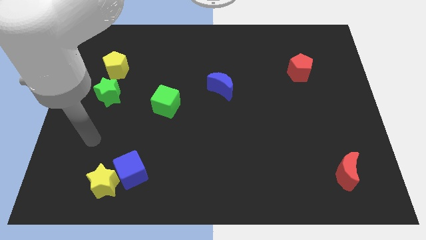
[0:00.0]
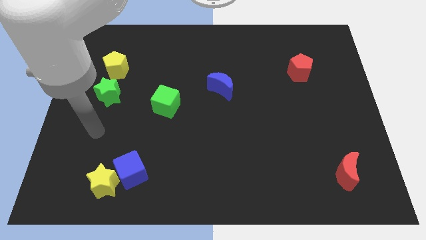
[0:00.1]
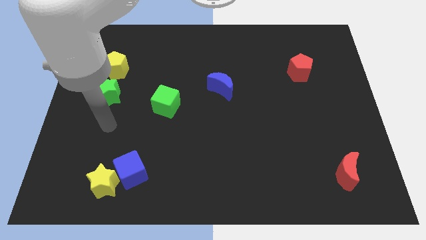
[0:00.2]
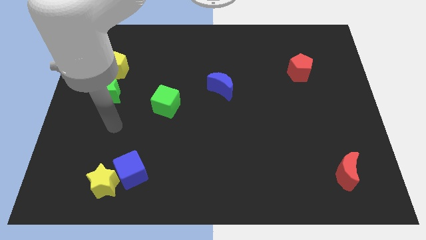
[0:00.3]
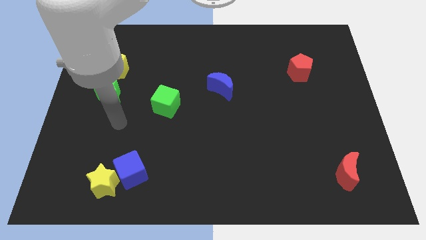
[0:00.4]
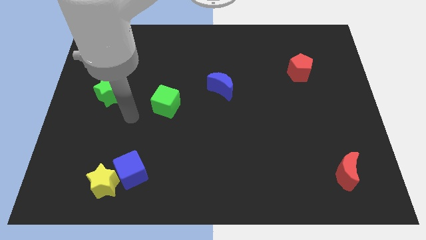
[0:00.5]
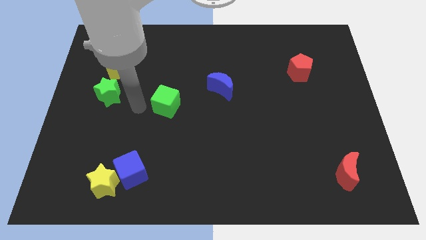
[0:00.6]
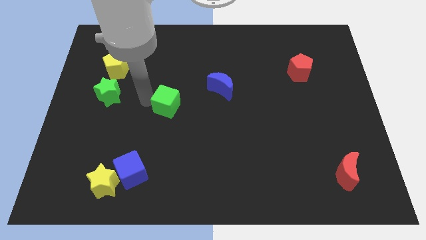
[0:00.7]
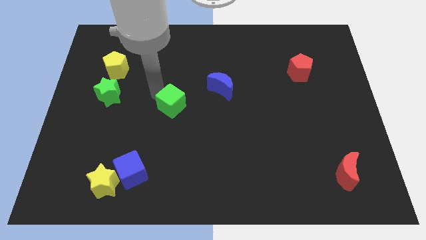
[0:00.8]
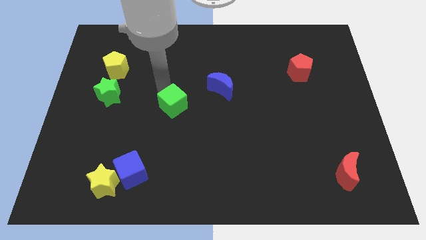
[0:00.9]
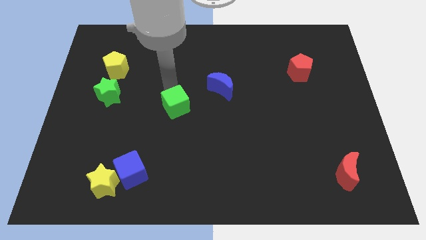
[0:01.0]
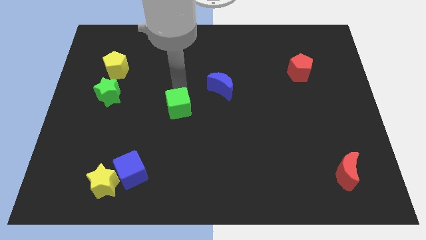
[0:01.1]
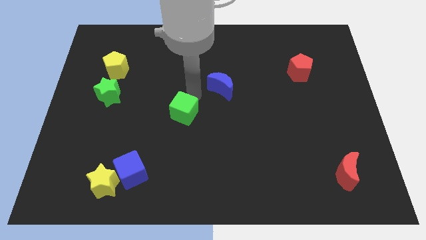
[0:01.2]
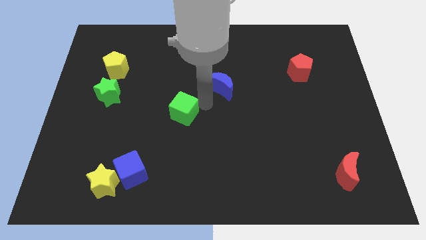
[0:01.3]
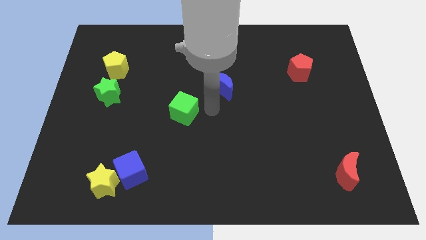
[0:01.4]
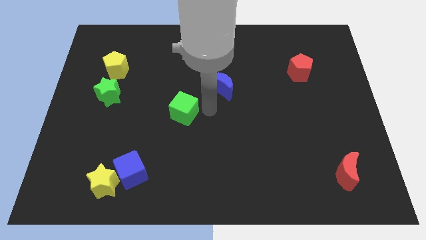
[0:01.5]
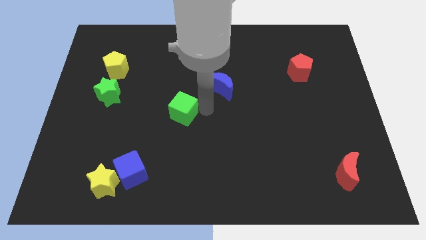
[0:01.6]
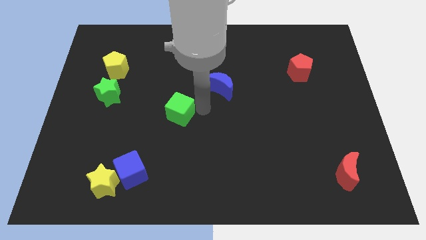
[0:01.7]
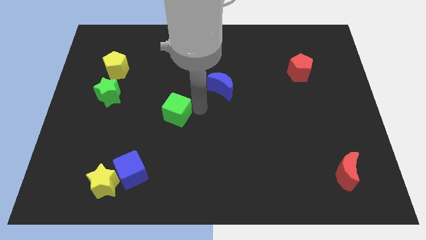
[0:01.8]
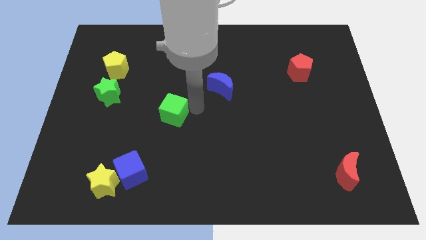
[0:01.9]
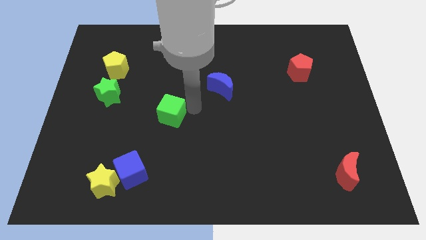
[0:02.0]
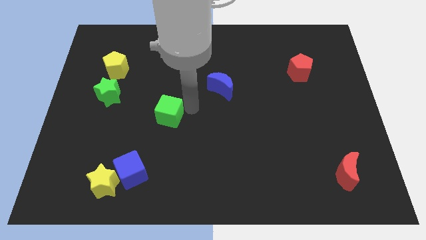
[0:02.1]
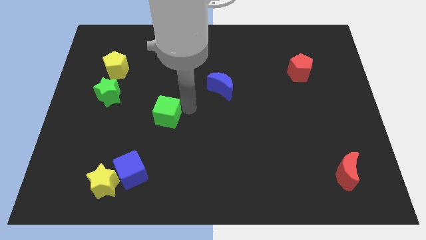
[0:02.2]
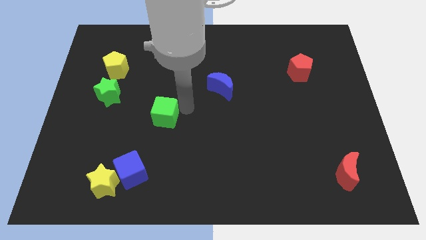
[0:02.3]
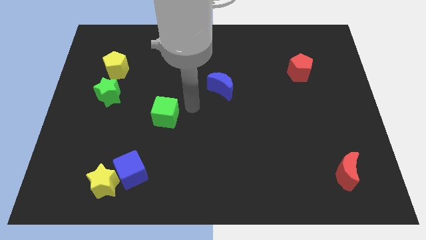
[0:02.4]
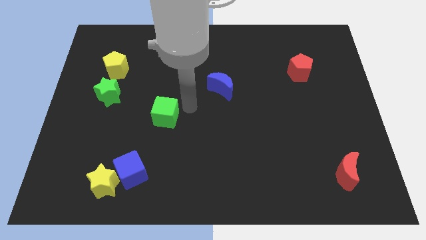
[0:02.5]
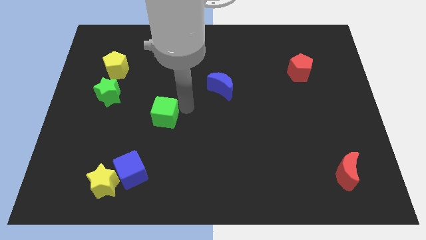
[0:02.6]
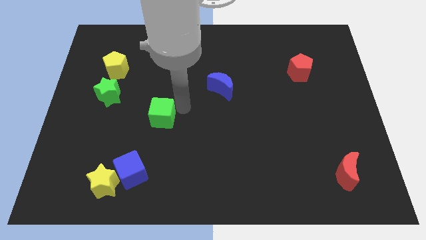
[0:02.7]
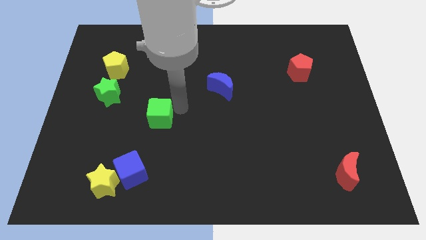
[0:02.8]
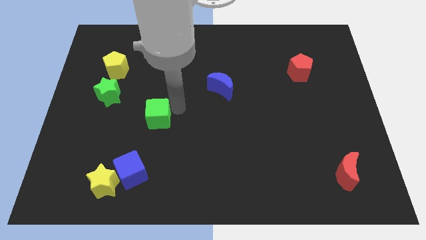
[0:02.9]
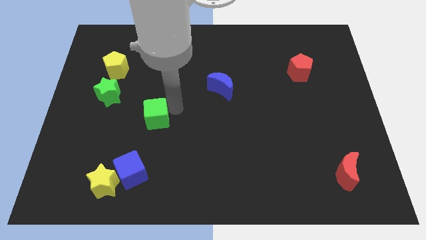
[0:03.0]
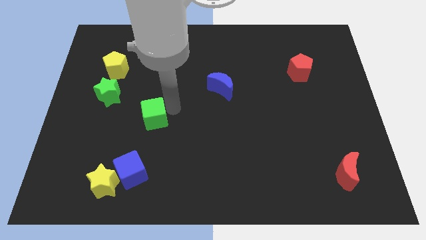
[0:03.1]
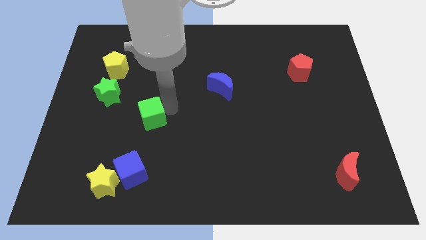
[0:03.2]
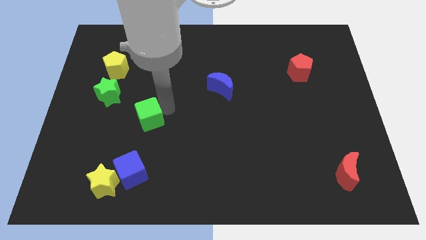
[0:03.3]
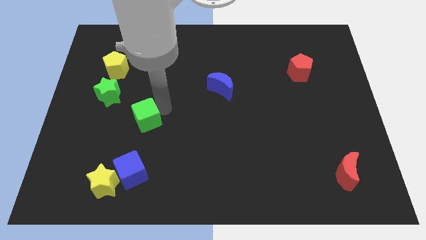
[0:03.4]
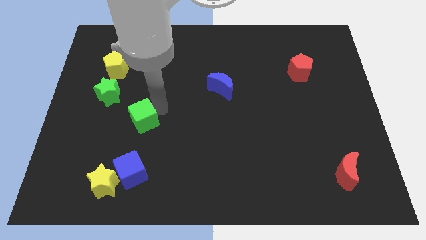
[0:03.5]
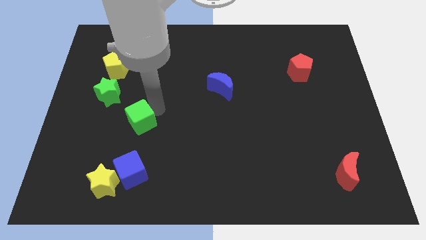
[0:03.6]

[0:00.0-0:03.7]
push the green cube a little down and to the left

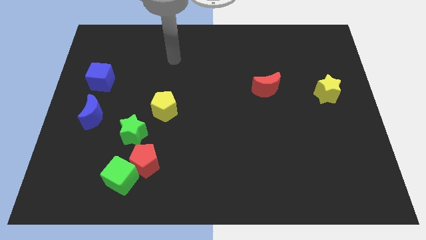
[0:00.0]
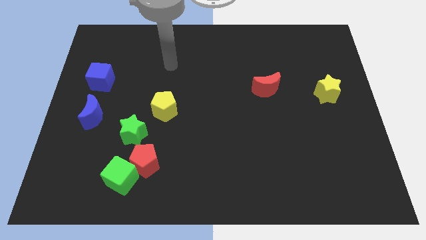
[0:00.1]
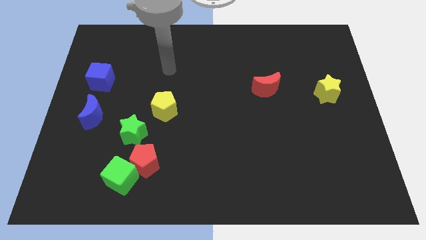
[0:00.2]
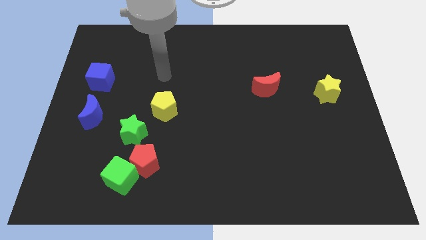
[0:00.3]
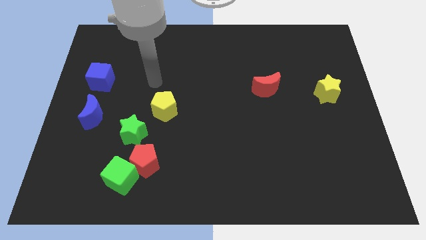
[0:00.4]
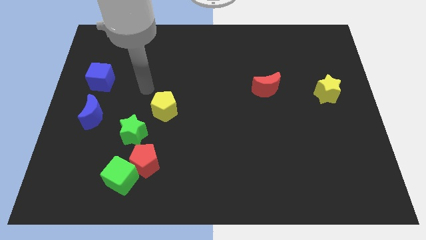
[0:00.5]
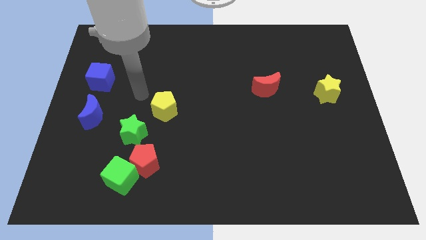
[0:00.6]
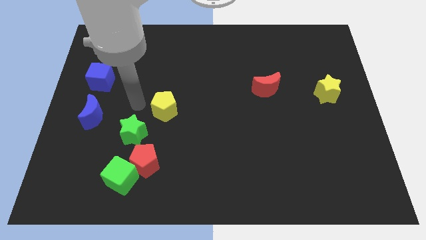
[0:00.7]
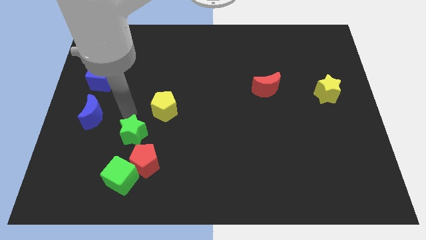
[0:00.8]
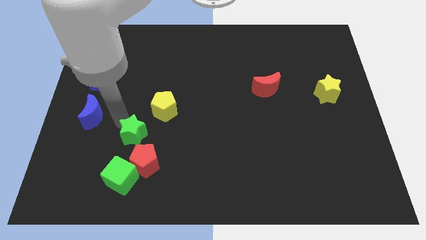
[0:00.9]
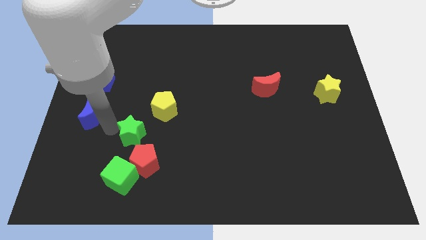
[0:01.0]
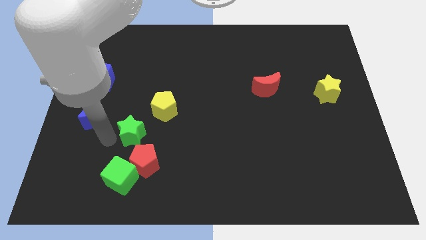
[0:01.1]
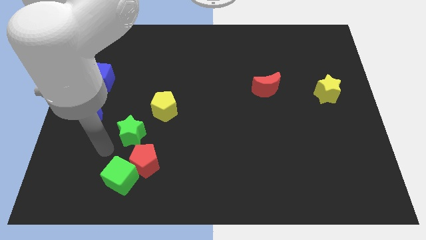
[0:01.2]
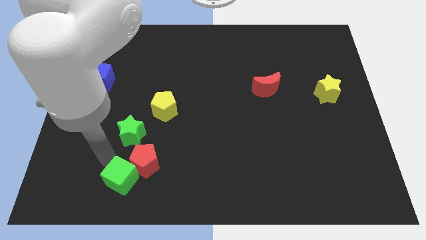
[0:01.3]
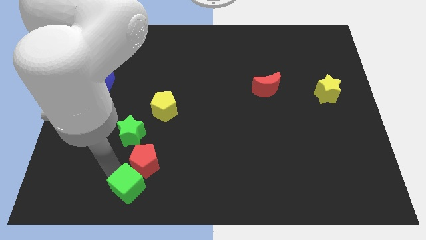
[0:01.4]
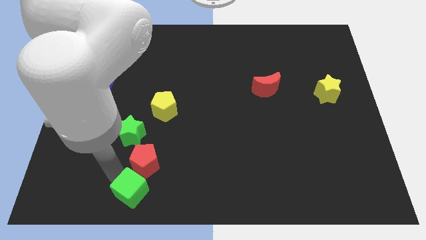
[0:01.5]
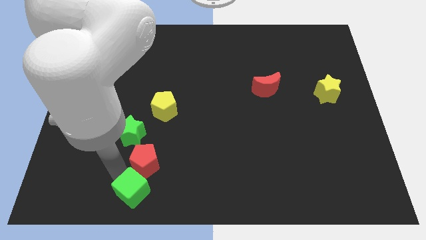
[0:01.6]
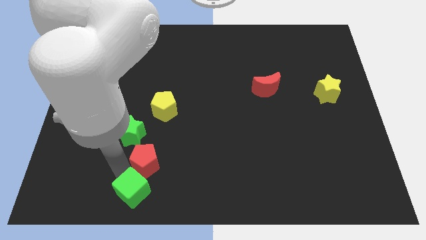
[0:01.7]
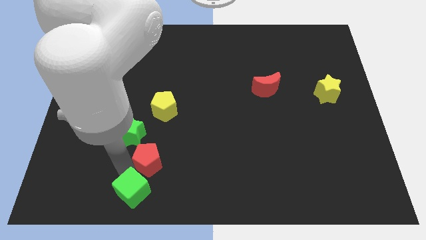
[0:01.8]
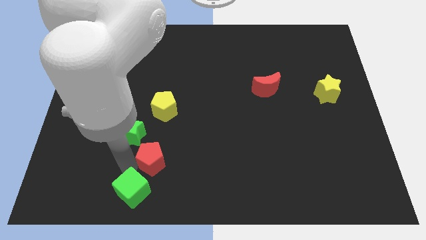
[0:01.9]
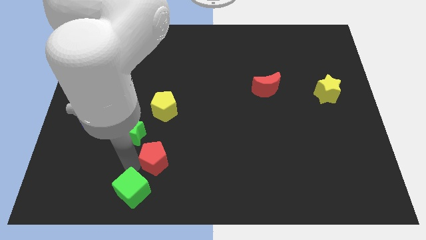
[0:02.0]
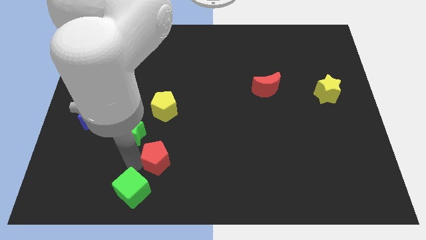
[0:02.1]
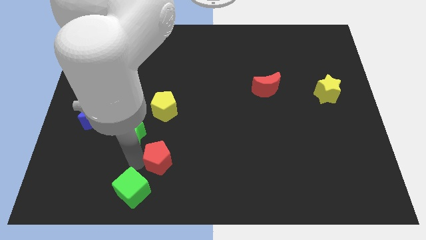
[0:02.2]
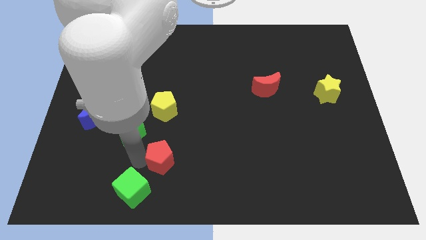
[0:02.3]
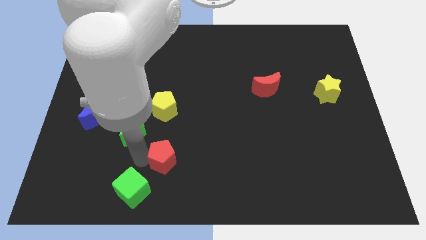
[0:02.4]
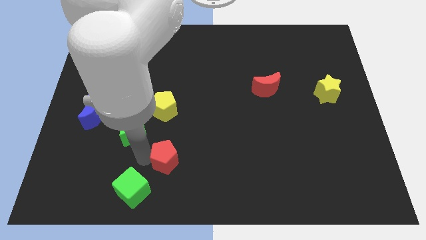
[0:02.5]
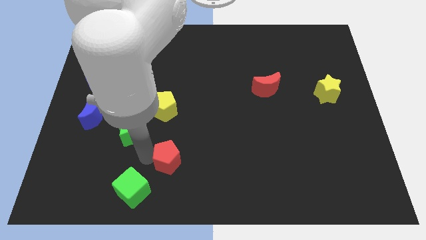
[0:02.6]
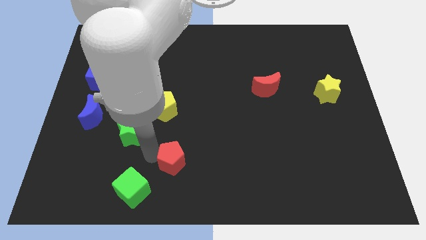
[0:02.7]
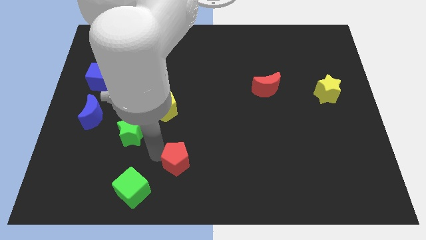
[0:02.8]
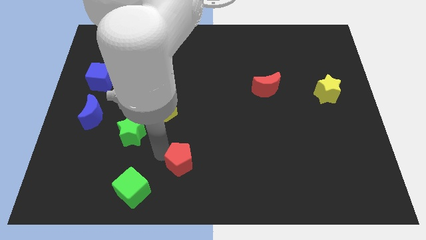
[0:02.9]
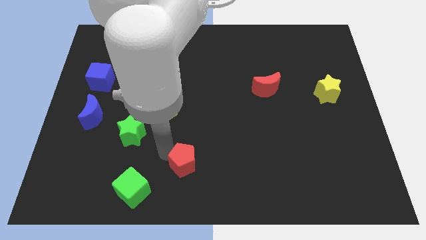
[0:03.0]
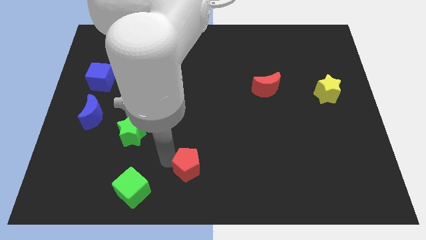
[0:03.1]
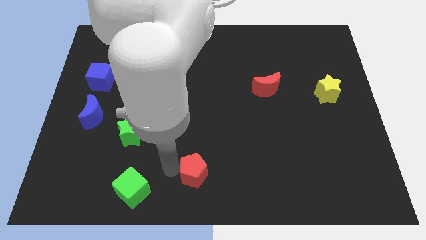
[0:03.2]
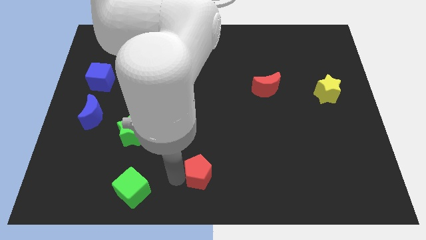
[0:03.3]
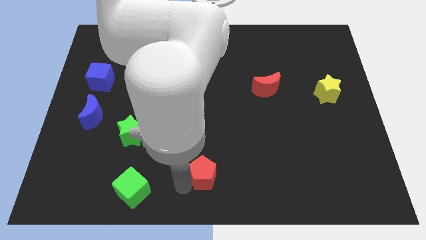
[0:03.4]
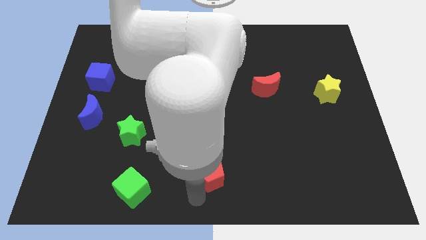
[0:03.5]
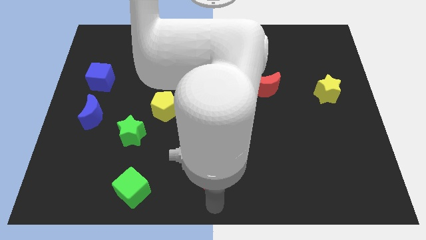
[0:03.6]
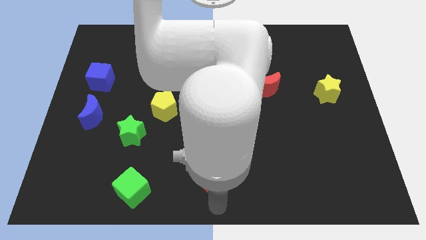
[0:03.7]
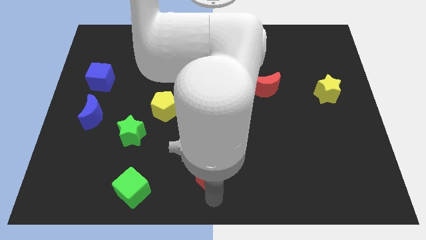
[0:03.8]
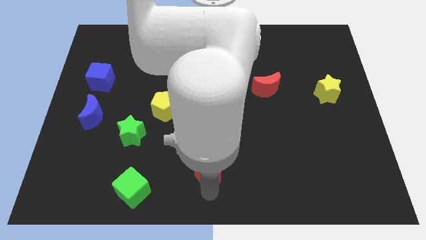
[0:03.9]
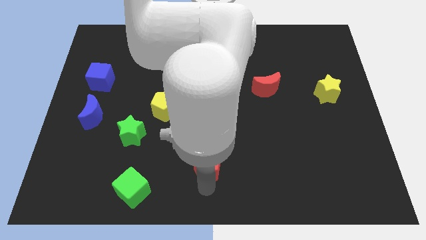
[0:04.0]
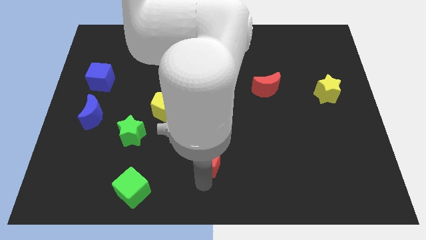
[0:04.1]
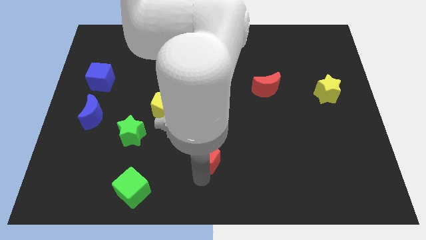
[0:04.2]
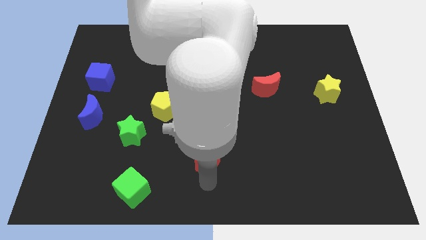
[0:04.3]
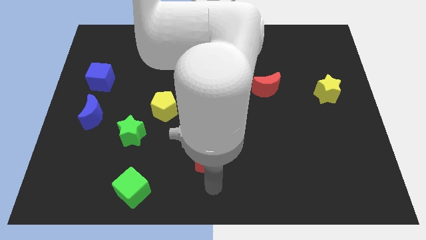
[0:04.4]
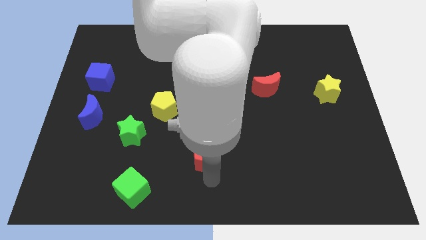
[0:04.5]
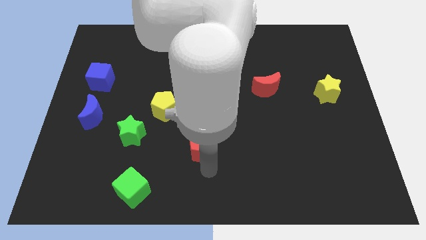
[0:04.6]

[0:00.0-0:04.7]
slightly move the red pentagon upwards and to the right

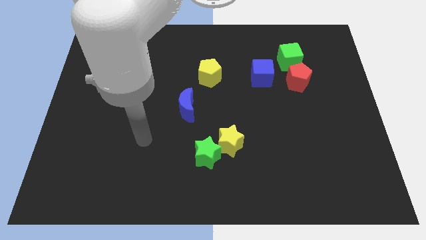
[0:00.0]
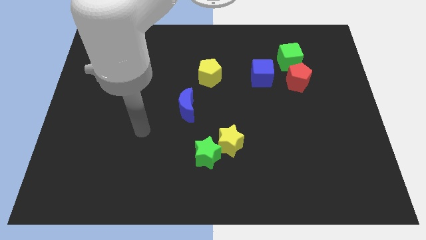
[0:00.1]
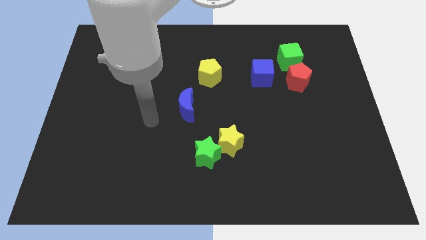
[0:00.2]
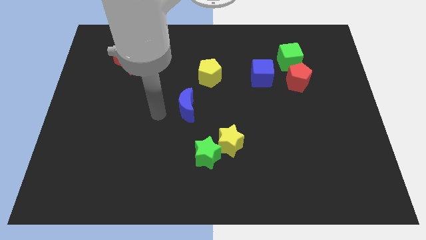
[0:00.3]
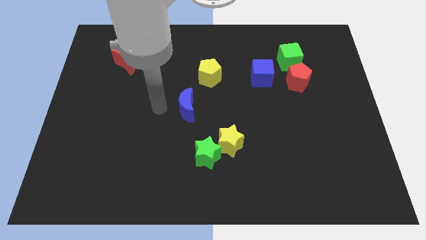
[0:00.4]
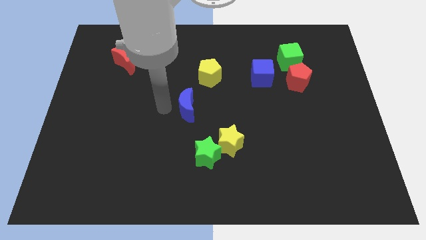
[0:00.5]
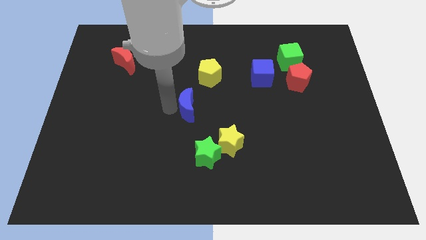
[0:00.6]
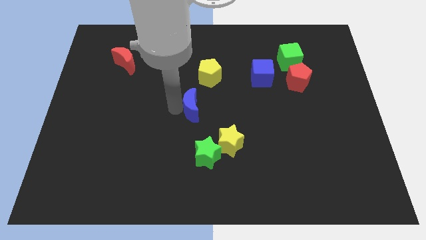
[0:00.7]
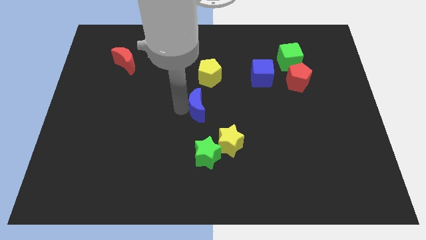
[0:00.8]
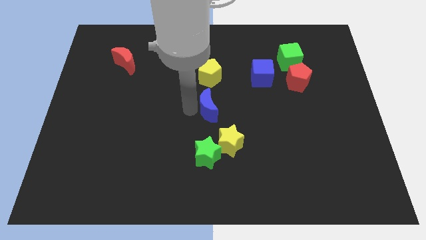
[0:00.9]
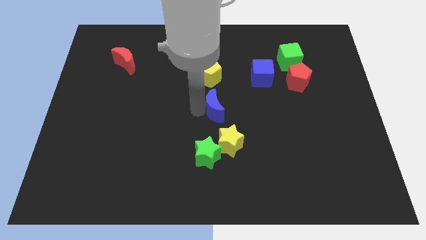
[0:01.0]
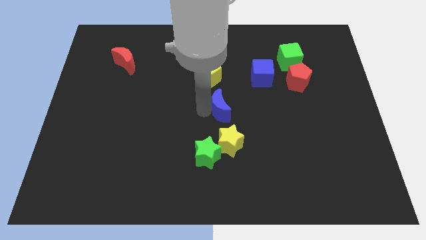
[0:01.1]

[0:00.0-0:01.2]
slightly slide the blue moon right
